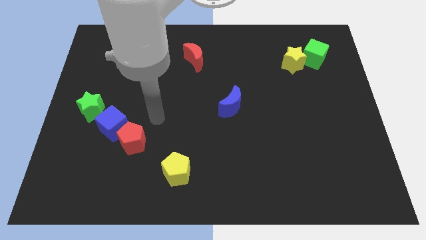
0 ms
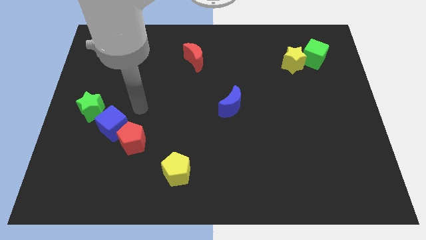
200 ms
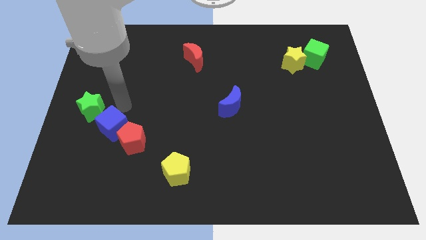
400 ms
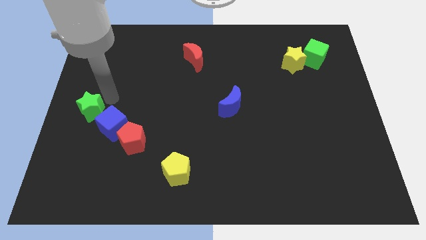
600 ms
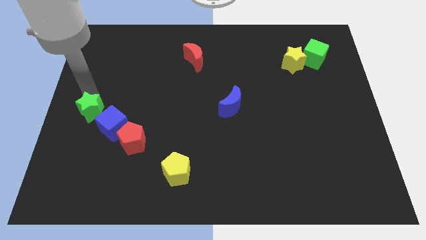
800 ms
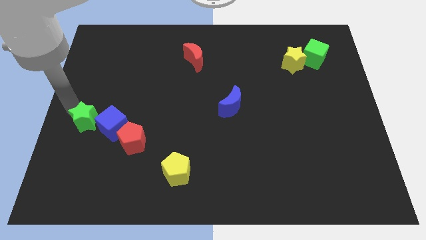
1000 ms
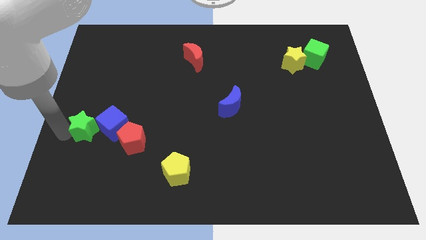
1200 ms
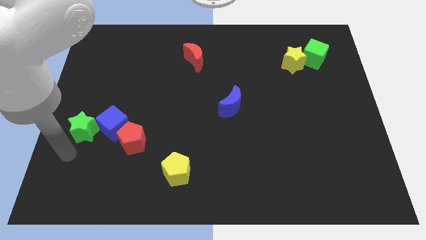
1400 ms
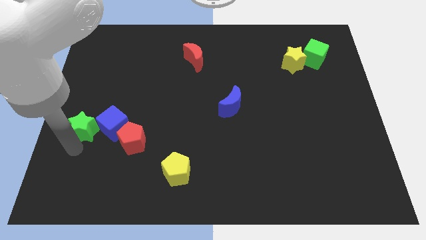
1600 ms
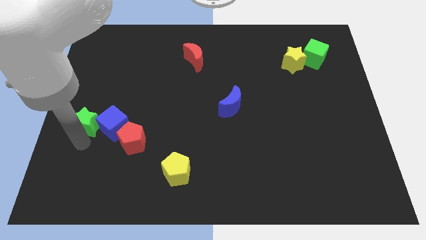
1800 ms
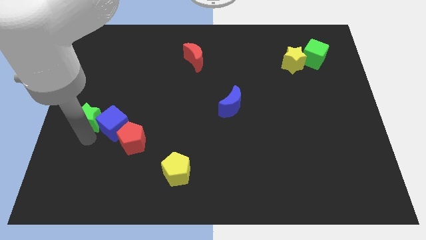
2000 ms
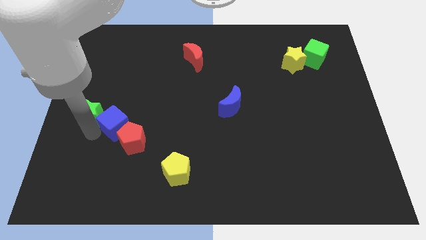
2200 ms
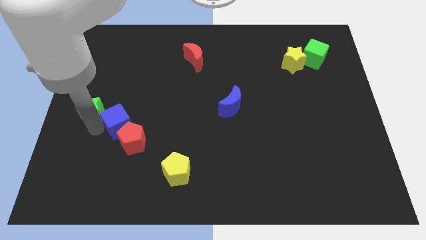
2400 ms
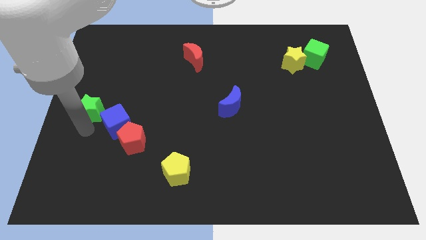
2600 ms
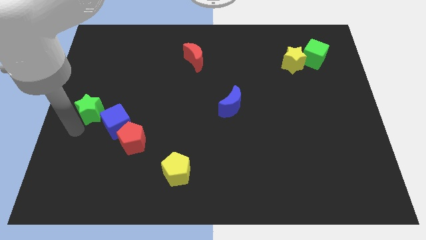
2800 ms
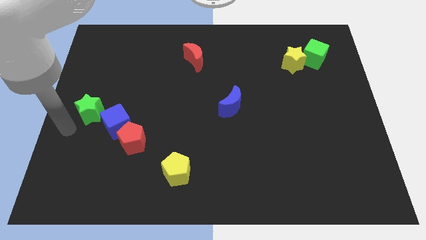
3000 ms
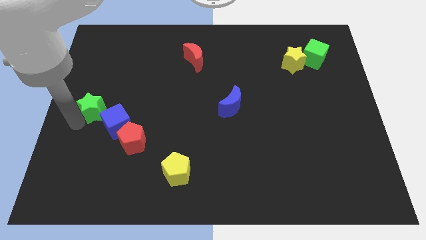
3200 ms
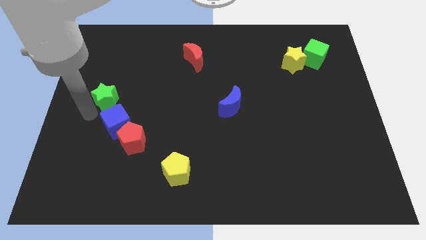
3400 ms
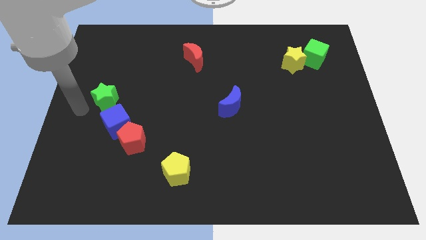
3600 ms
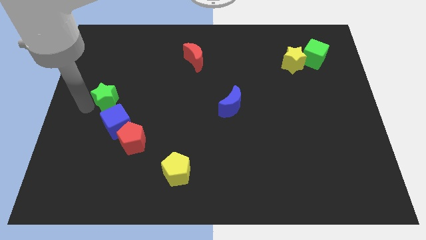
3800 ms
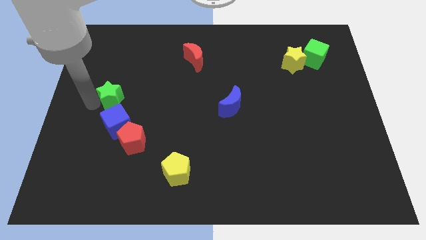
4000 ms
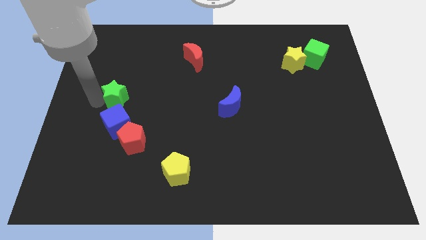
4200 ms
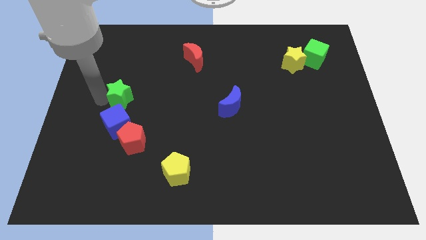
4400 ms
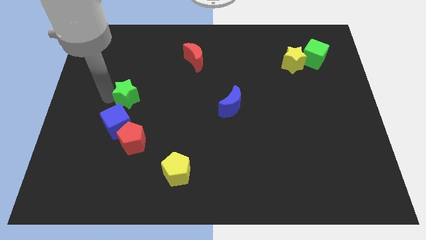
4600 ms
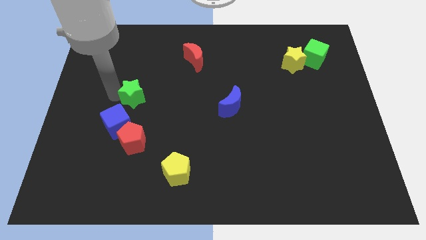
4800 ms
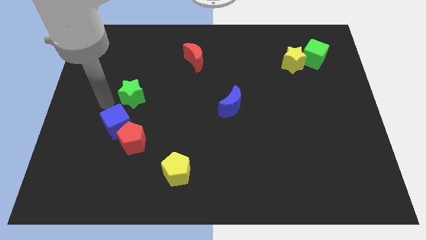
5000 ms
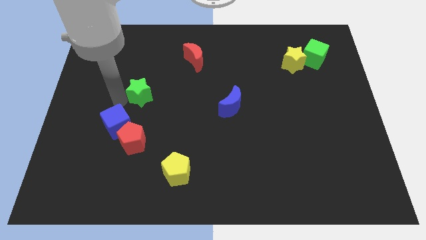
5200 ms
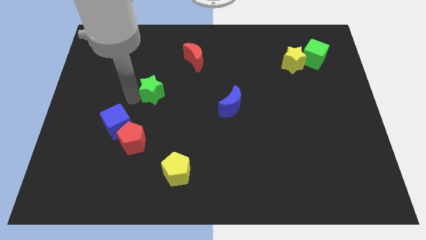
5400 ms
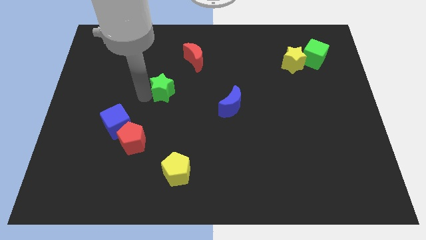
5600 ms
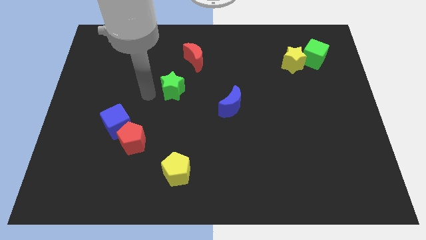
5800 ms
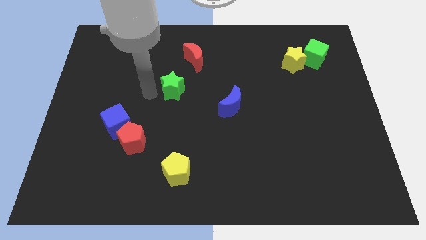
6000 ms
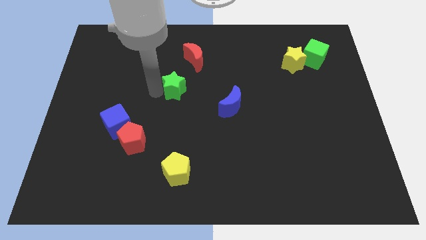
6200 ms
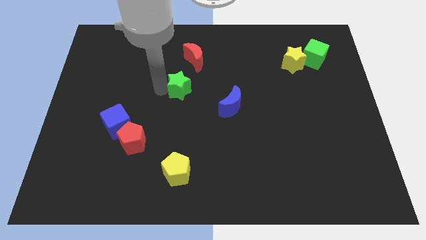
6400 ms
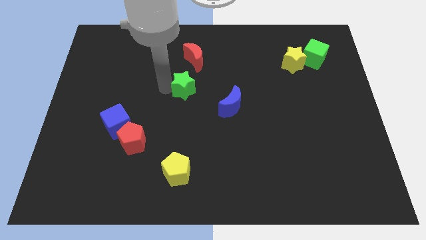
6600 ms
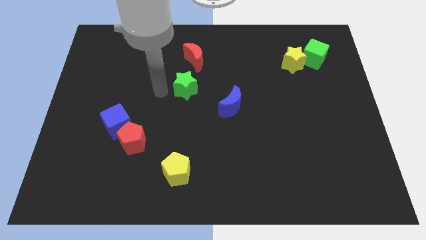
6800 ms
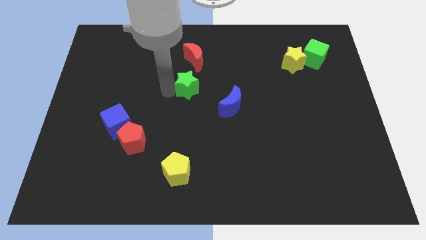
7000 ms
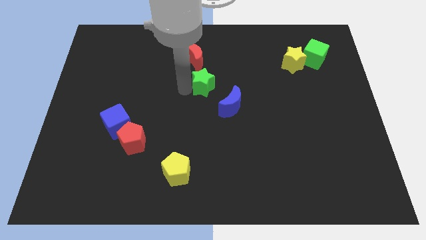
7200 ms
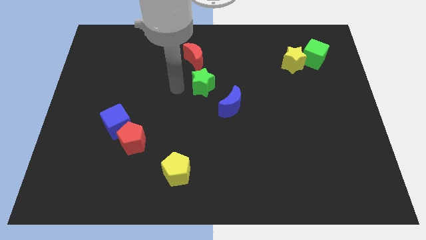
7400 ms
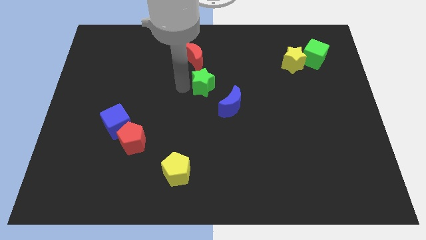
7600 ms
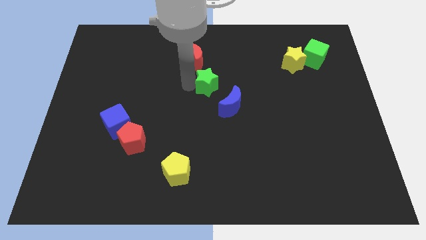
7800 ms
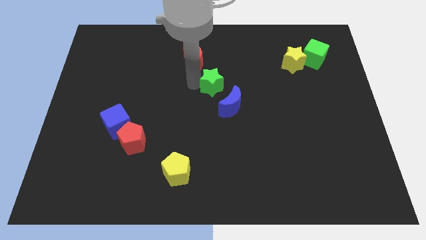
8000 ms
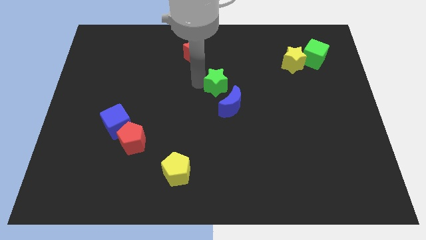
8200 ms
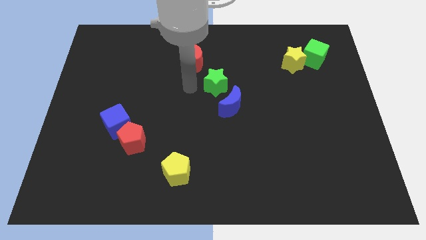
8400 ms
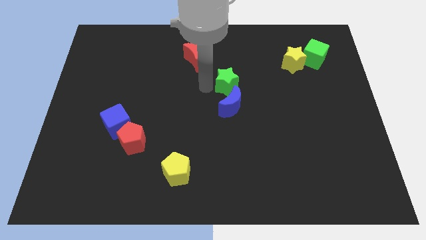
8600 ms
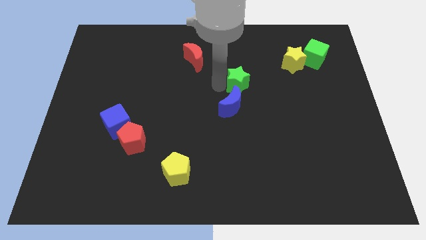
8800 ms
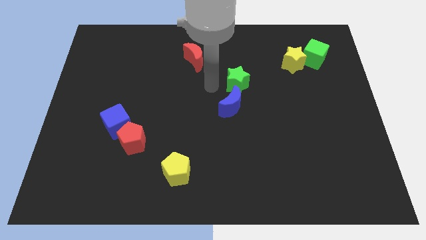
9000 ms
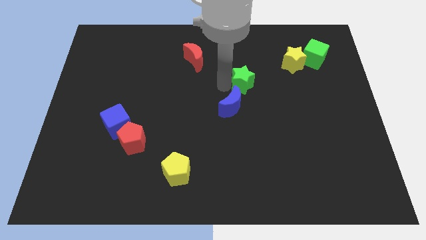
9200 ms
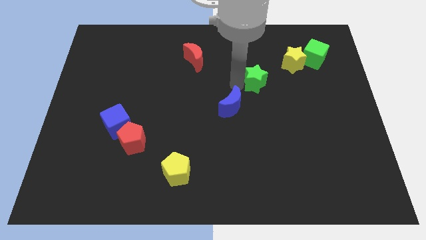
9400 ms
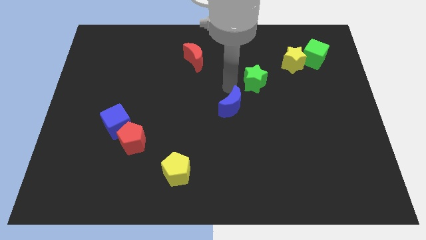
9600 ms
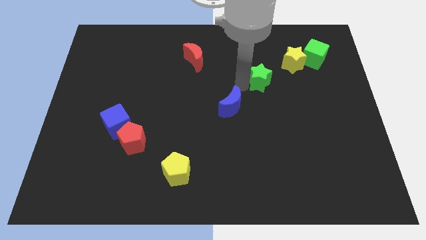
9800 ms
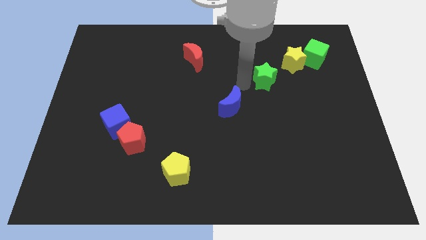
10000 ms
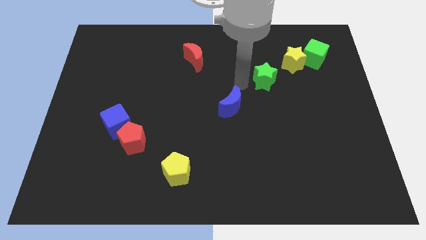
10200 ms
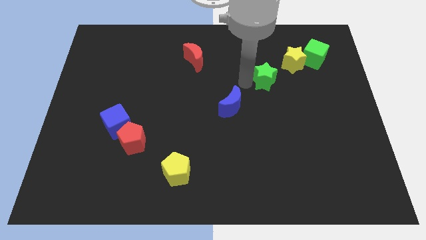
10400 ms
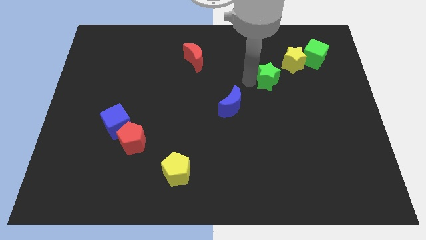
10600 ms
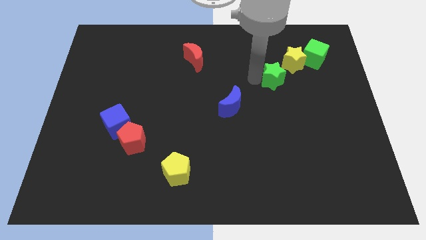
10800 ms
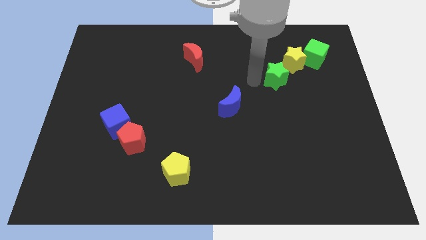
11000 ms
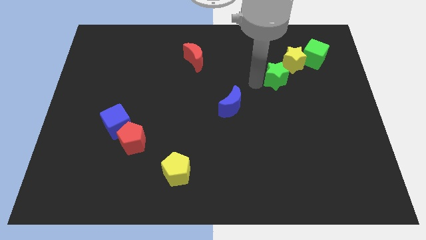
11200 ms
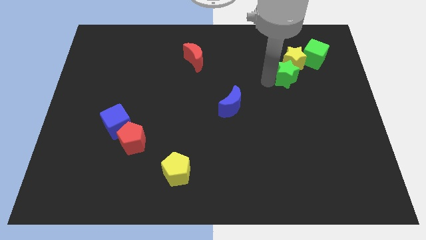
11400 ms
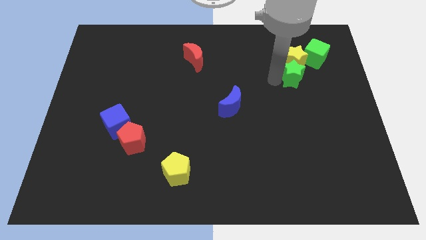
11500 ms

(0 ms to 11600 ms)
slide the green star diagonally down and to the right of the yellow star
